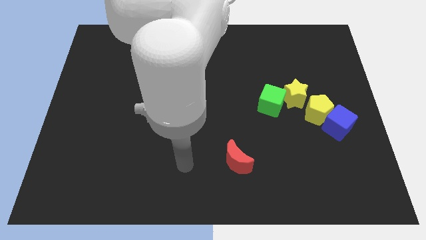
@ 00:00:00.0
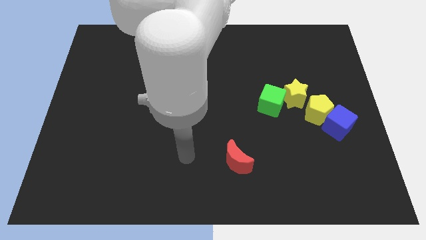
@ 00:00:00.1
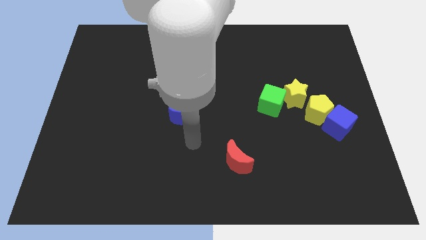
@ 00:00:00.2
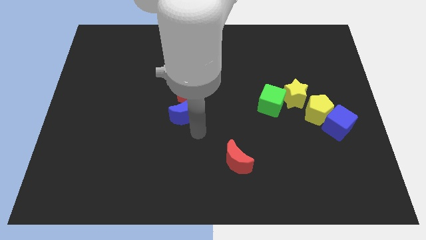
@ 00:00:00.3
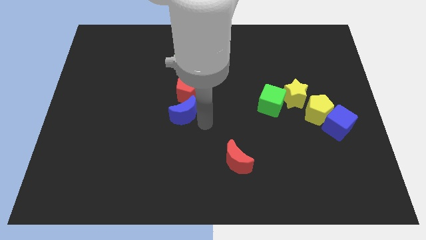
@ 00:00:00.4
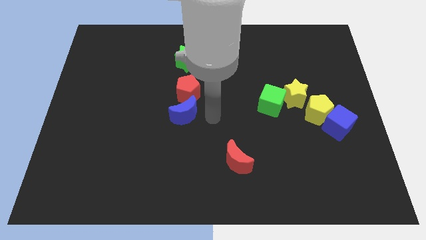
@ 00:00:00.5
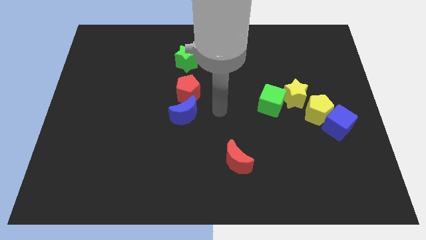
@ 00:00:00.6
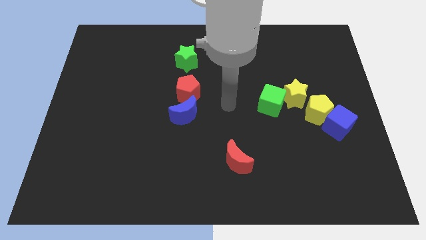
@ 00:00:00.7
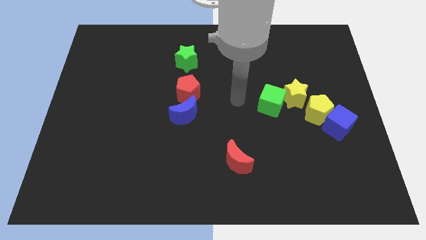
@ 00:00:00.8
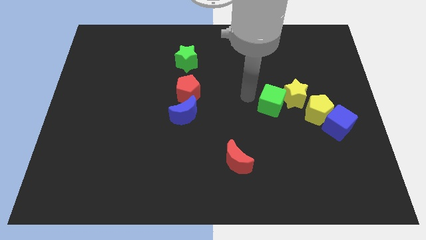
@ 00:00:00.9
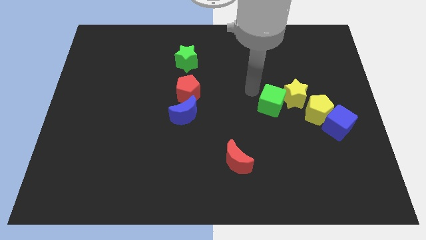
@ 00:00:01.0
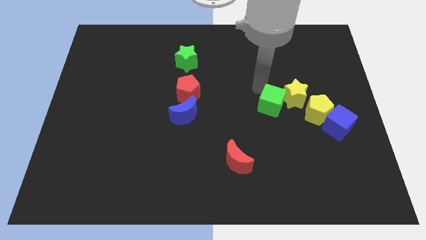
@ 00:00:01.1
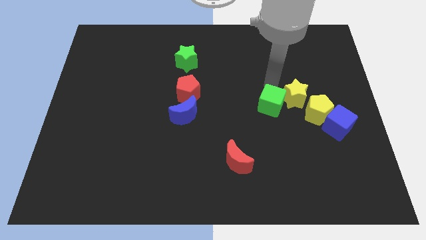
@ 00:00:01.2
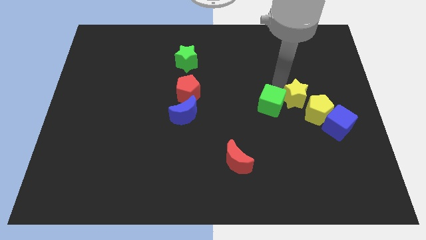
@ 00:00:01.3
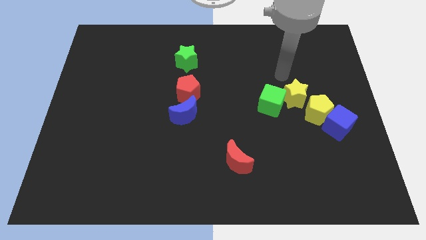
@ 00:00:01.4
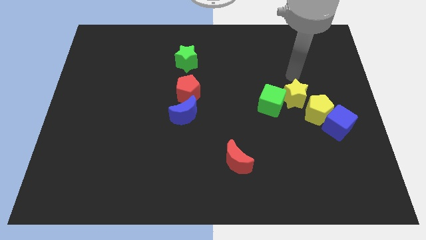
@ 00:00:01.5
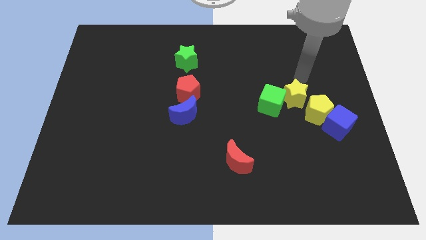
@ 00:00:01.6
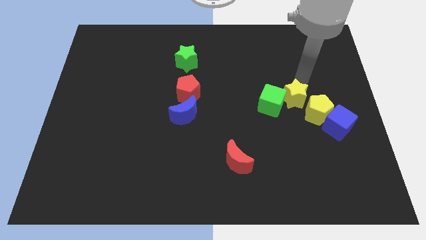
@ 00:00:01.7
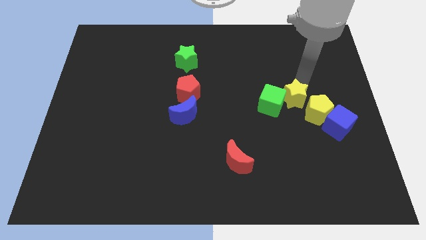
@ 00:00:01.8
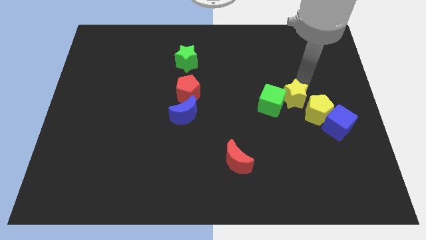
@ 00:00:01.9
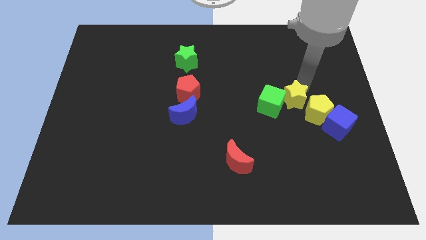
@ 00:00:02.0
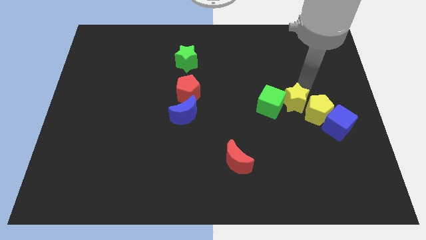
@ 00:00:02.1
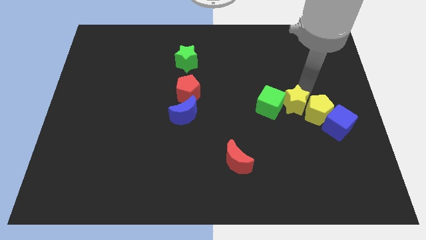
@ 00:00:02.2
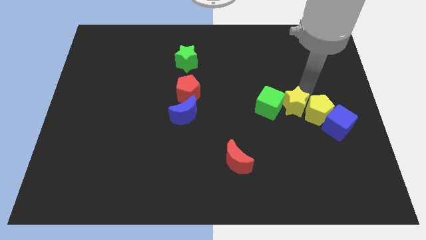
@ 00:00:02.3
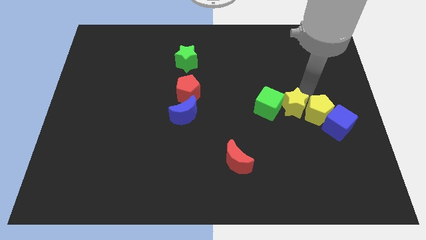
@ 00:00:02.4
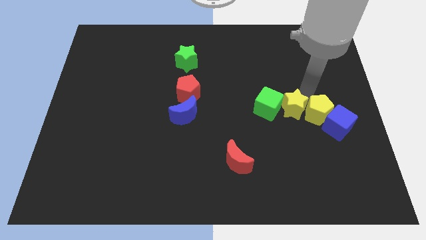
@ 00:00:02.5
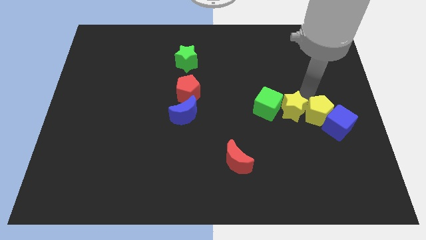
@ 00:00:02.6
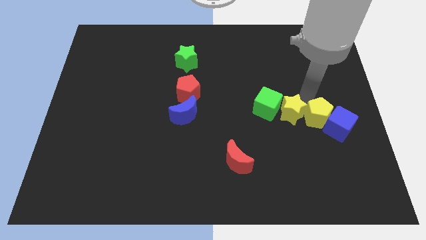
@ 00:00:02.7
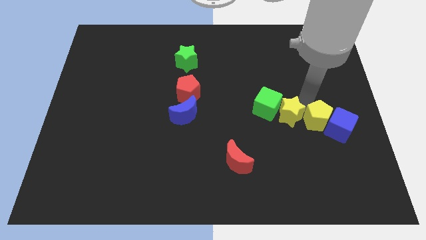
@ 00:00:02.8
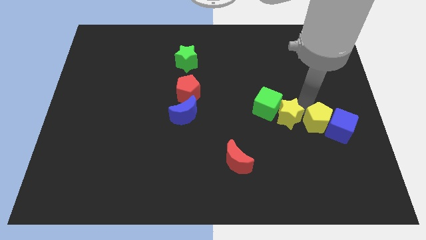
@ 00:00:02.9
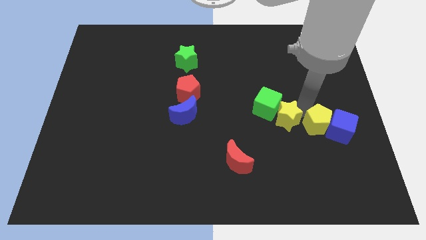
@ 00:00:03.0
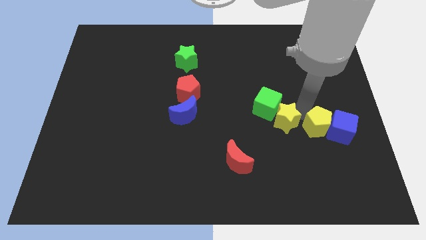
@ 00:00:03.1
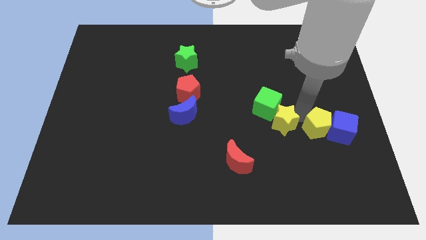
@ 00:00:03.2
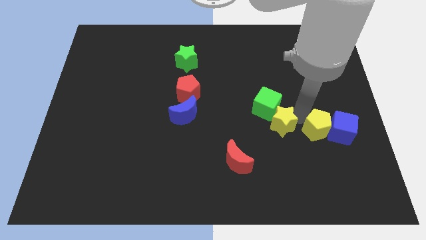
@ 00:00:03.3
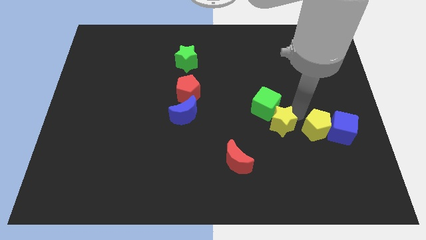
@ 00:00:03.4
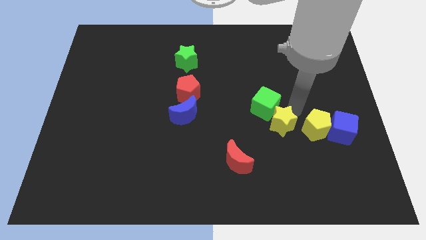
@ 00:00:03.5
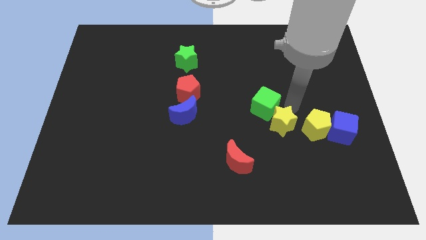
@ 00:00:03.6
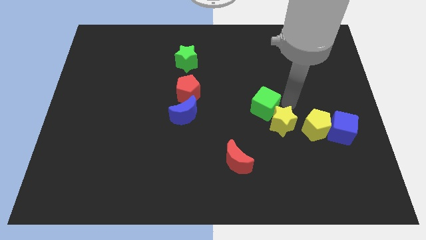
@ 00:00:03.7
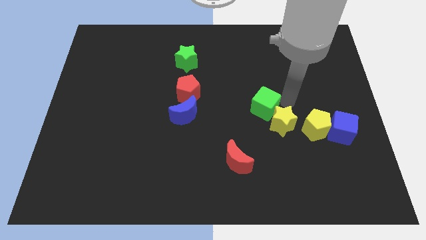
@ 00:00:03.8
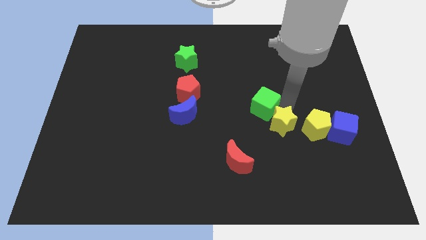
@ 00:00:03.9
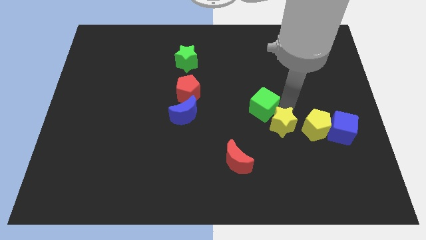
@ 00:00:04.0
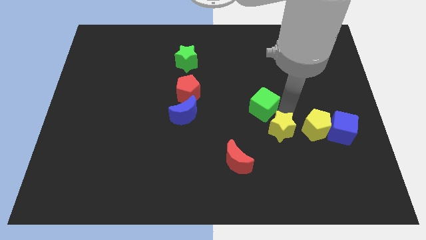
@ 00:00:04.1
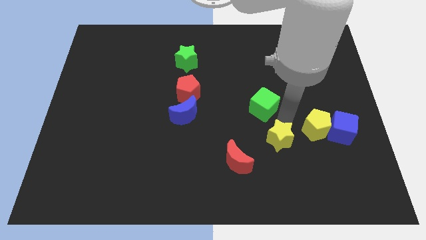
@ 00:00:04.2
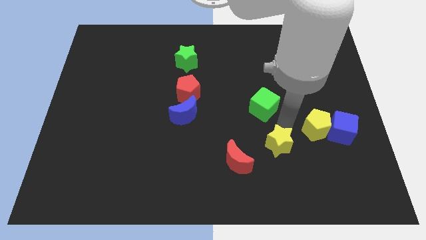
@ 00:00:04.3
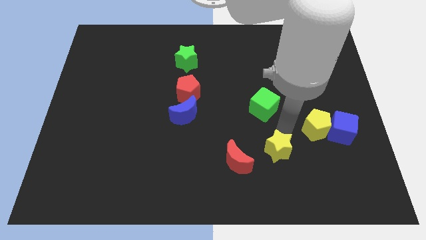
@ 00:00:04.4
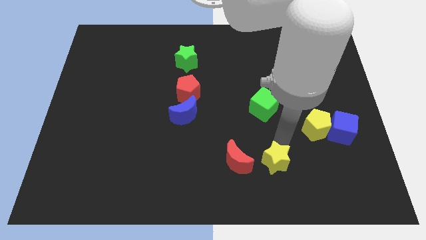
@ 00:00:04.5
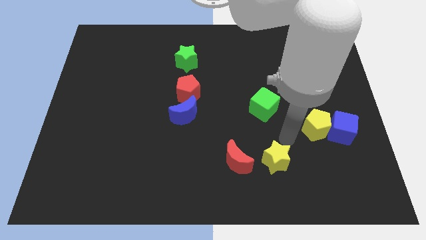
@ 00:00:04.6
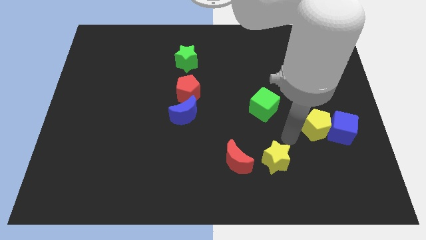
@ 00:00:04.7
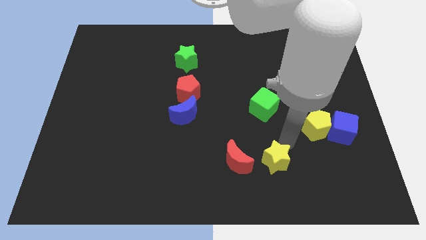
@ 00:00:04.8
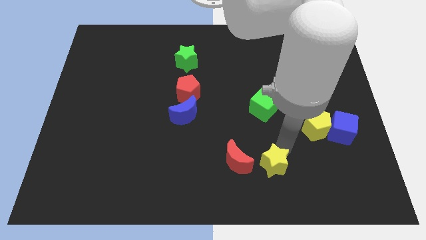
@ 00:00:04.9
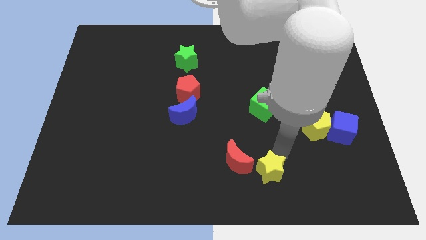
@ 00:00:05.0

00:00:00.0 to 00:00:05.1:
put the yellow star diagonally down and to the right of the red moon

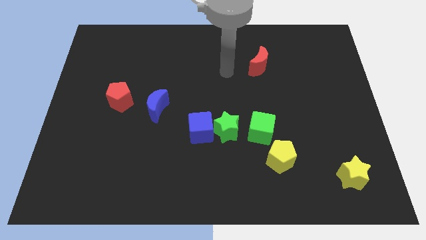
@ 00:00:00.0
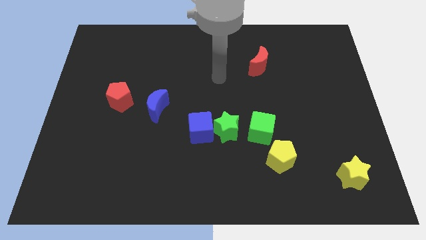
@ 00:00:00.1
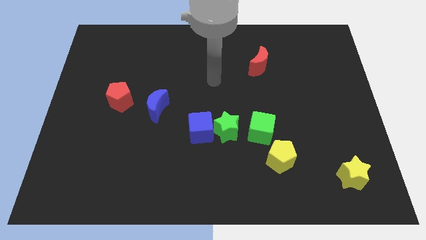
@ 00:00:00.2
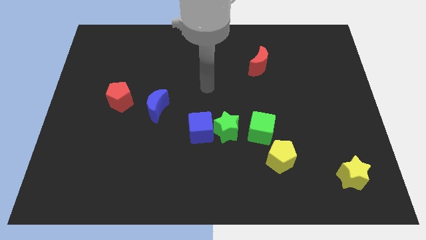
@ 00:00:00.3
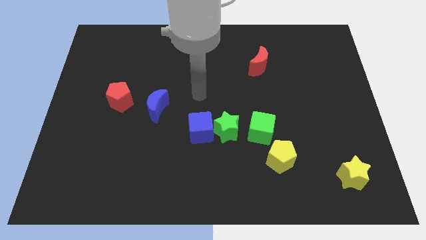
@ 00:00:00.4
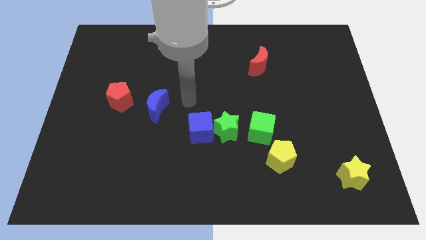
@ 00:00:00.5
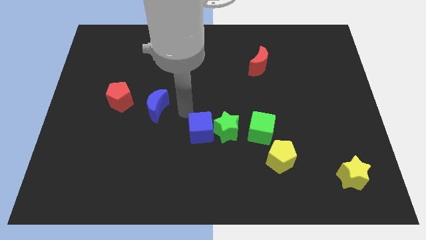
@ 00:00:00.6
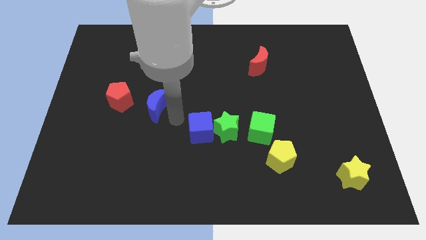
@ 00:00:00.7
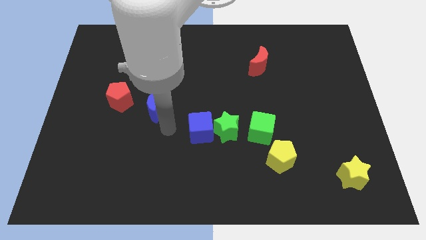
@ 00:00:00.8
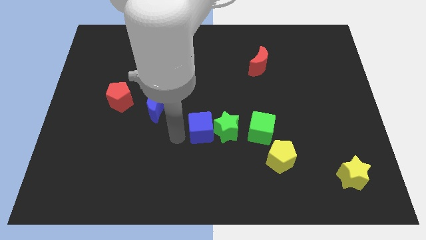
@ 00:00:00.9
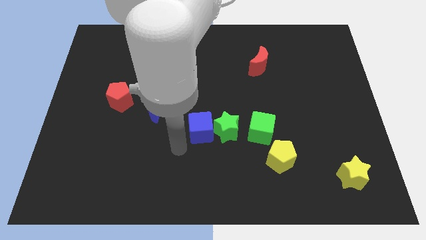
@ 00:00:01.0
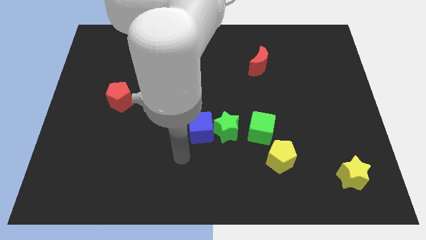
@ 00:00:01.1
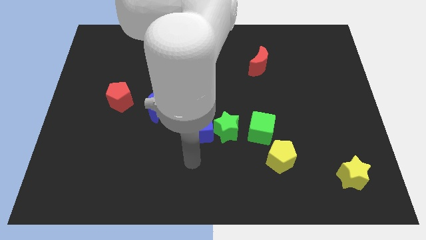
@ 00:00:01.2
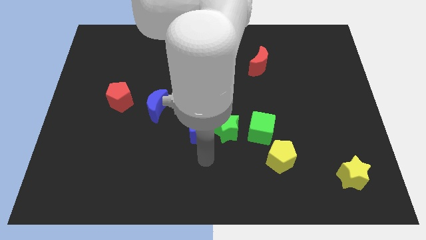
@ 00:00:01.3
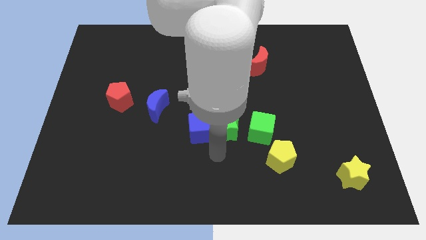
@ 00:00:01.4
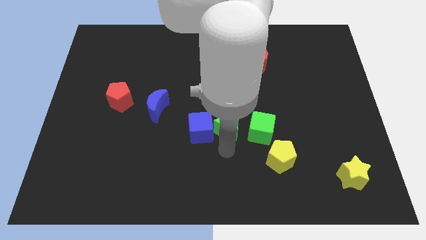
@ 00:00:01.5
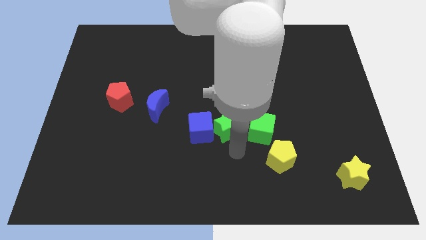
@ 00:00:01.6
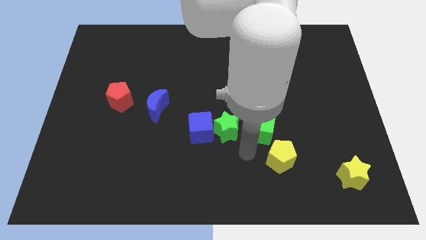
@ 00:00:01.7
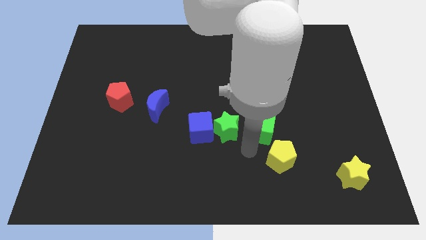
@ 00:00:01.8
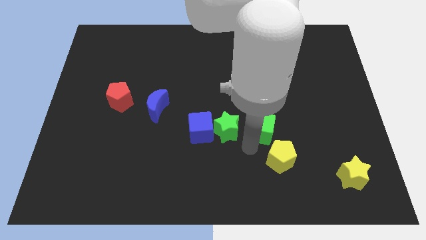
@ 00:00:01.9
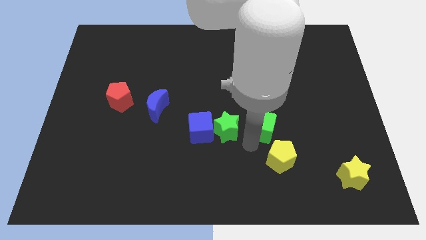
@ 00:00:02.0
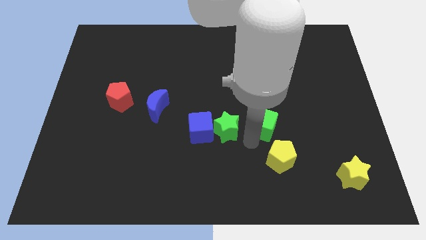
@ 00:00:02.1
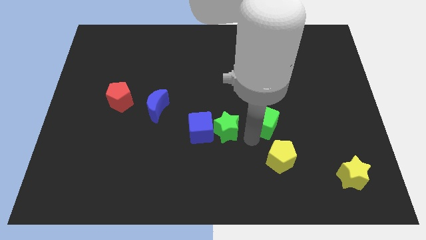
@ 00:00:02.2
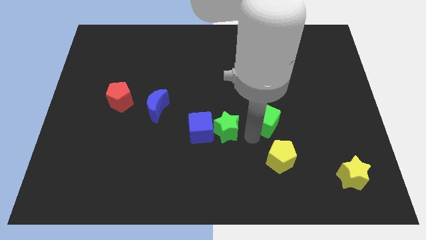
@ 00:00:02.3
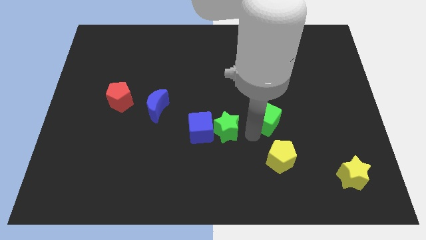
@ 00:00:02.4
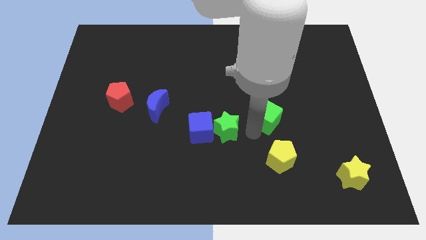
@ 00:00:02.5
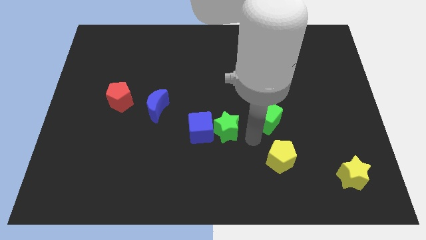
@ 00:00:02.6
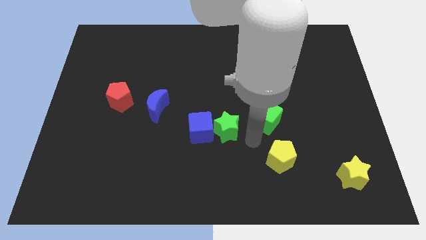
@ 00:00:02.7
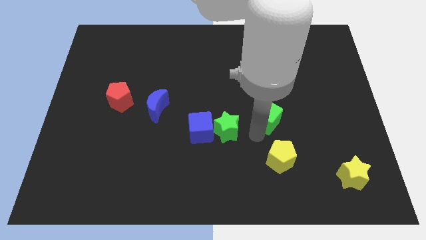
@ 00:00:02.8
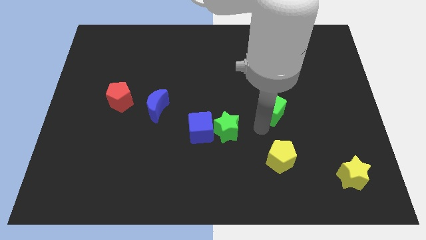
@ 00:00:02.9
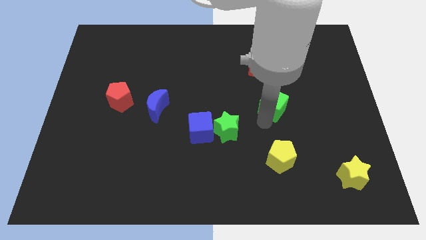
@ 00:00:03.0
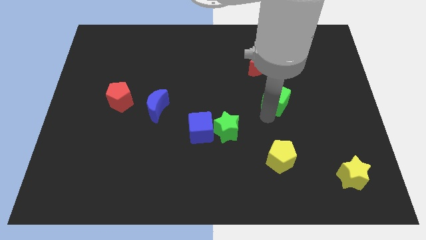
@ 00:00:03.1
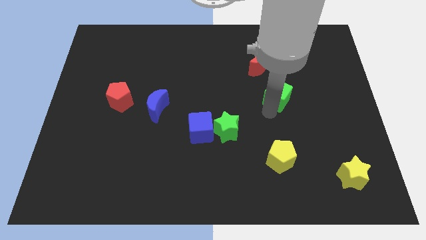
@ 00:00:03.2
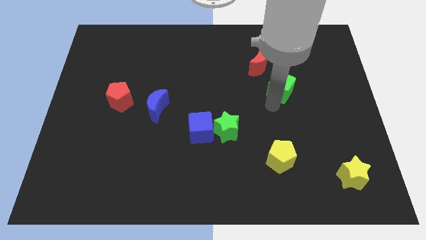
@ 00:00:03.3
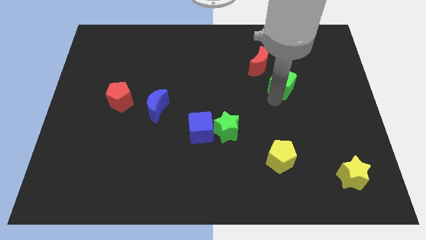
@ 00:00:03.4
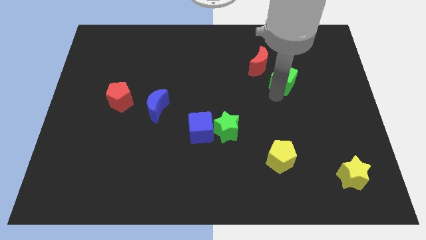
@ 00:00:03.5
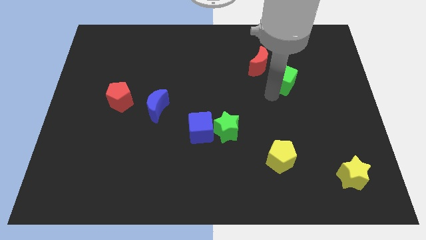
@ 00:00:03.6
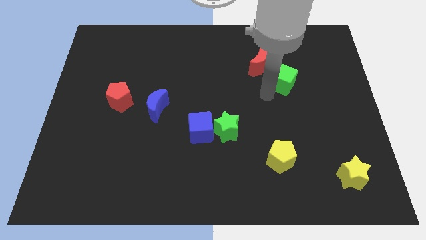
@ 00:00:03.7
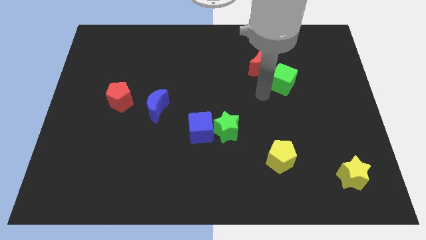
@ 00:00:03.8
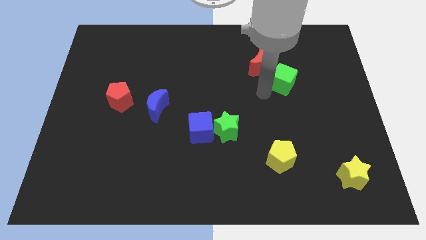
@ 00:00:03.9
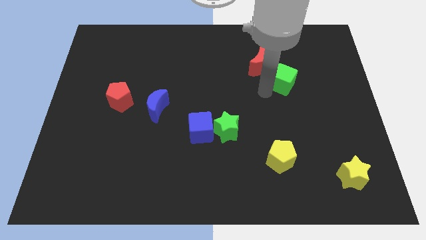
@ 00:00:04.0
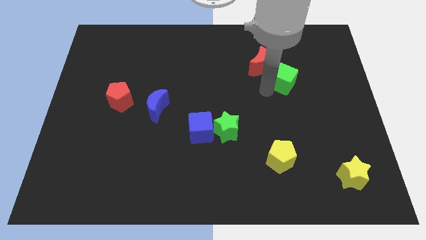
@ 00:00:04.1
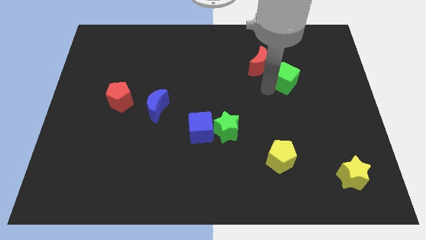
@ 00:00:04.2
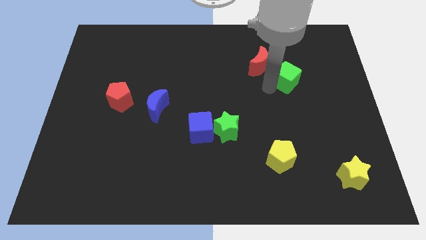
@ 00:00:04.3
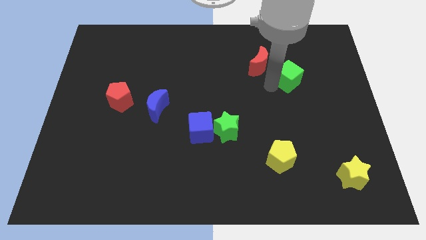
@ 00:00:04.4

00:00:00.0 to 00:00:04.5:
slide the green cube just right of the red moon
